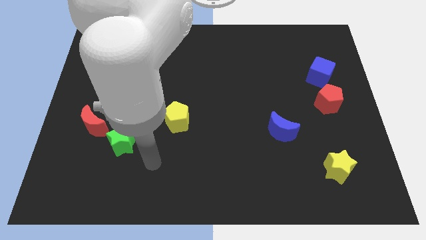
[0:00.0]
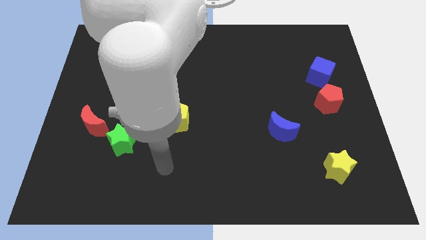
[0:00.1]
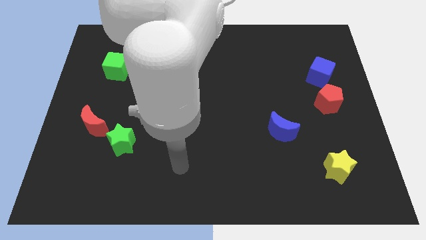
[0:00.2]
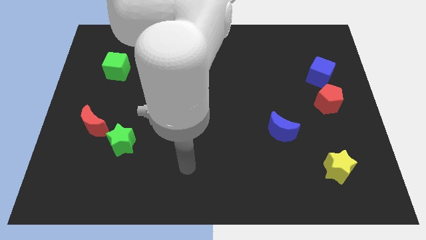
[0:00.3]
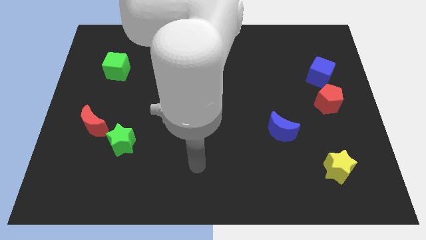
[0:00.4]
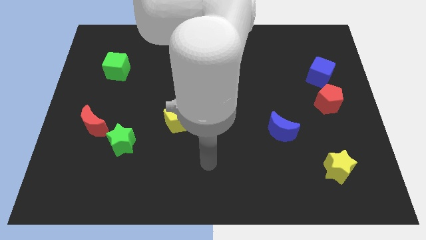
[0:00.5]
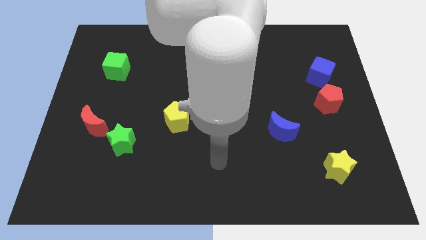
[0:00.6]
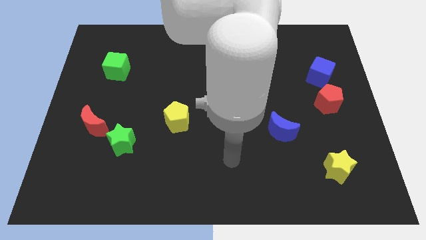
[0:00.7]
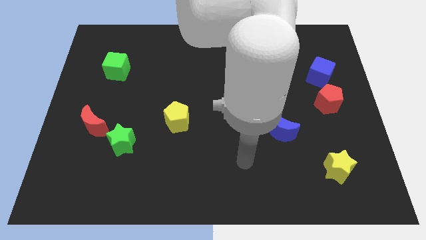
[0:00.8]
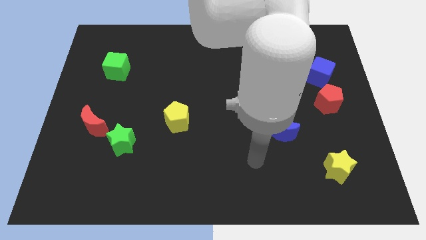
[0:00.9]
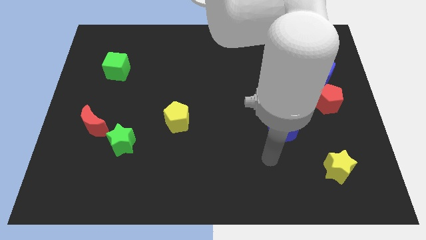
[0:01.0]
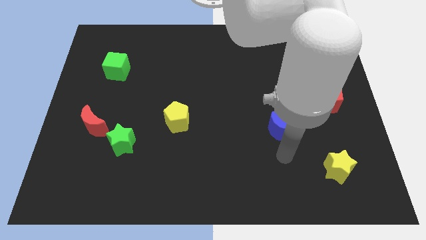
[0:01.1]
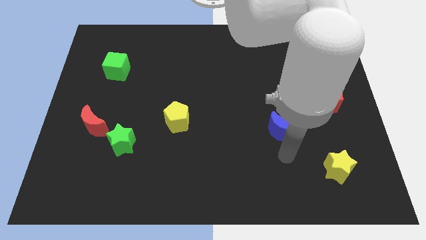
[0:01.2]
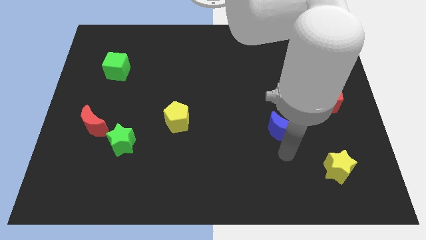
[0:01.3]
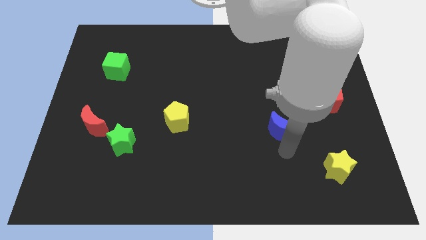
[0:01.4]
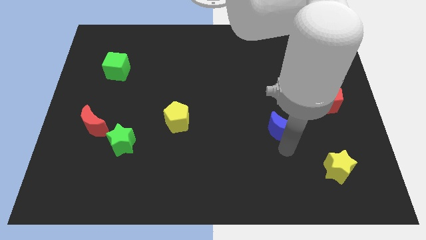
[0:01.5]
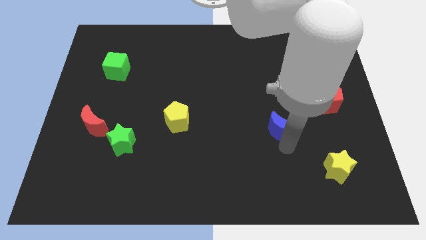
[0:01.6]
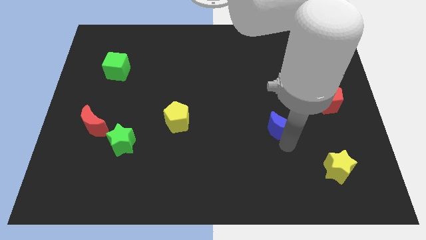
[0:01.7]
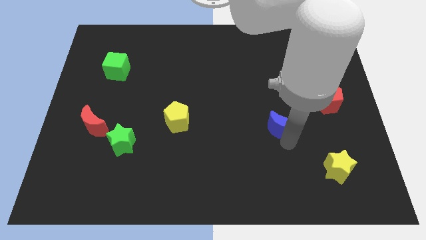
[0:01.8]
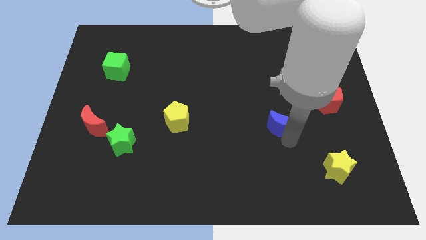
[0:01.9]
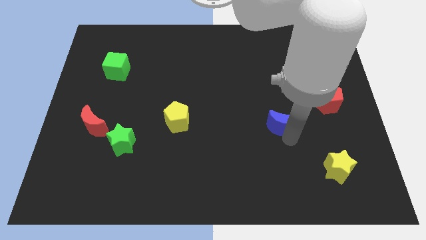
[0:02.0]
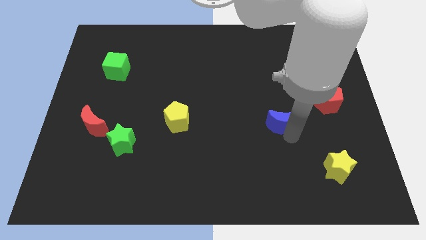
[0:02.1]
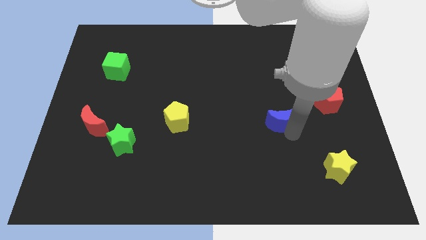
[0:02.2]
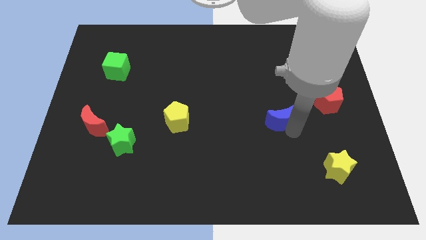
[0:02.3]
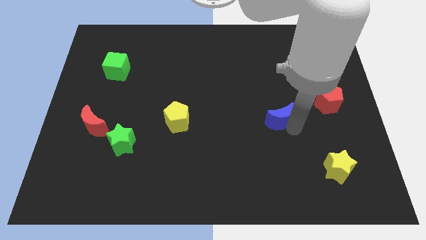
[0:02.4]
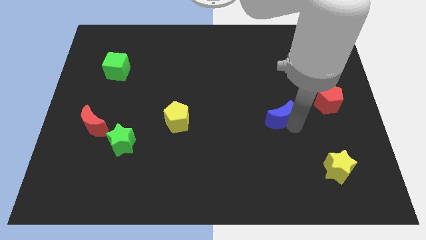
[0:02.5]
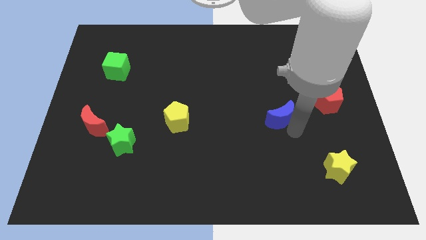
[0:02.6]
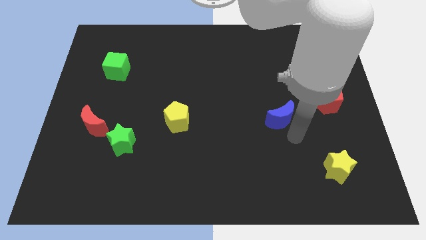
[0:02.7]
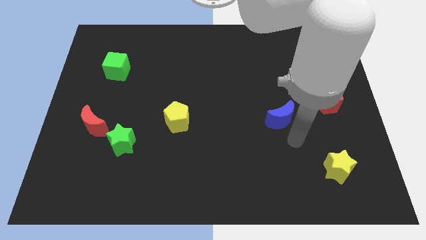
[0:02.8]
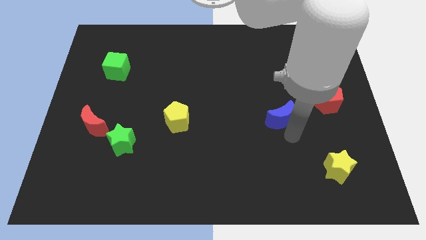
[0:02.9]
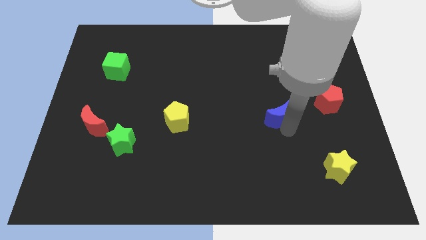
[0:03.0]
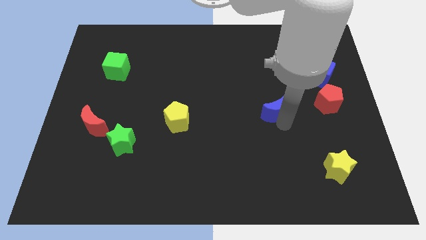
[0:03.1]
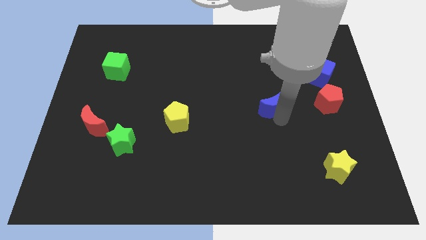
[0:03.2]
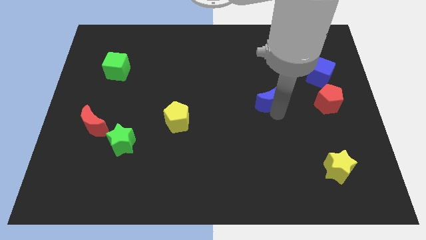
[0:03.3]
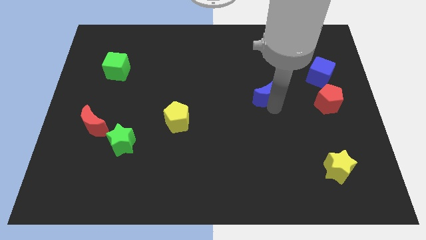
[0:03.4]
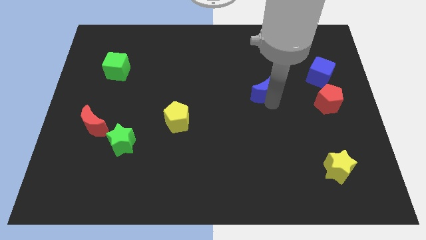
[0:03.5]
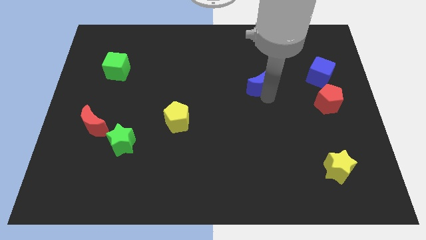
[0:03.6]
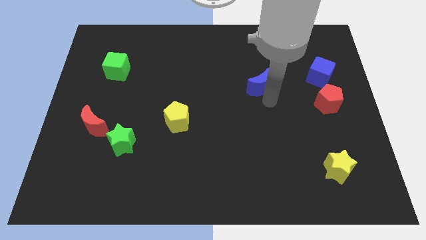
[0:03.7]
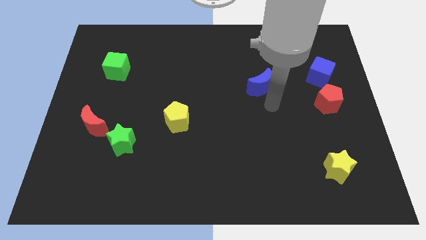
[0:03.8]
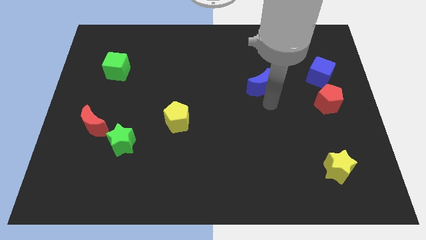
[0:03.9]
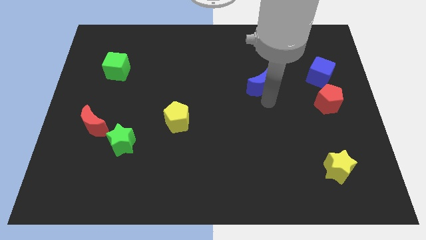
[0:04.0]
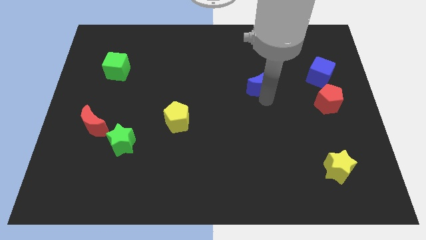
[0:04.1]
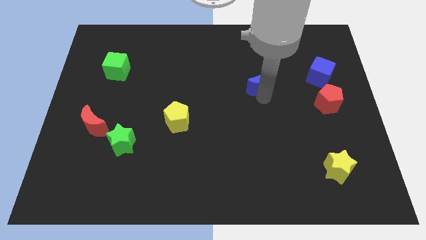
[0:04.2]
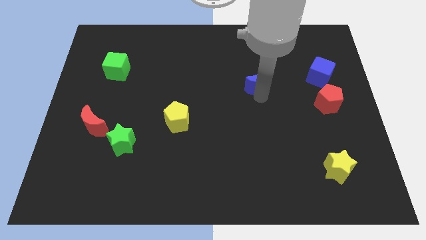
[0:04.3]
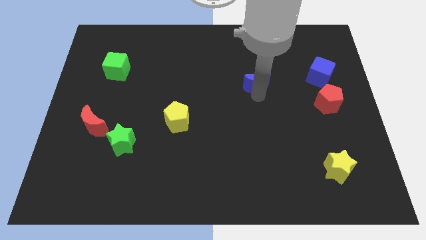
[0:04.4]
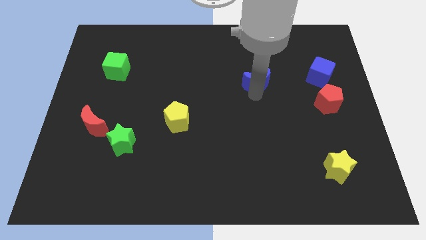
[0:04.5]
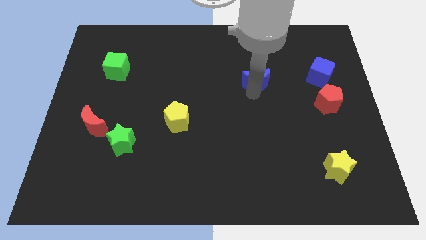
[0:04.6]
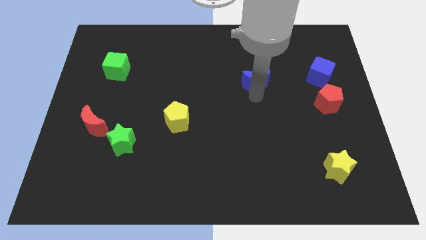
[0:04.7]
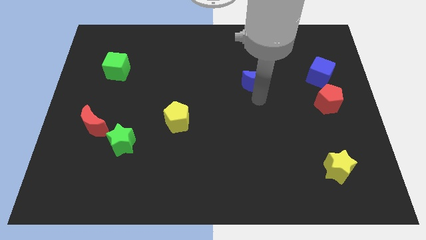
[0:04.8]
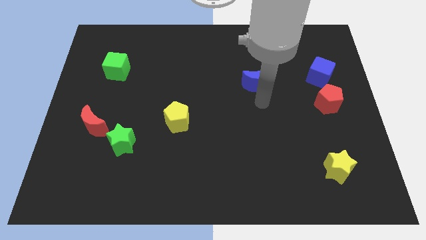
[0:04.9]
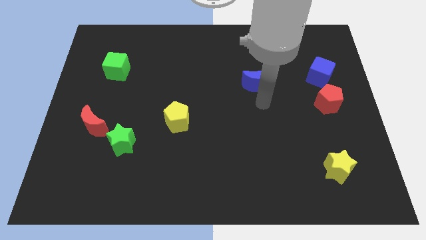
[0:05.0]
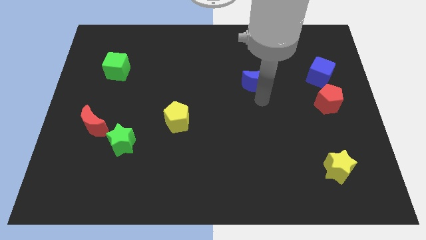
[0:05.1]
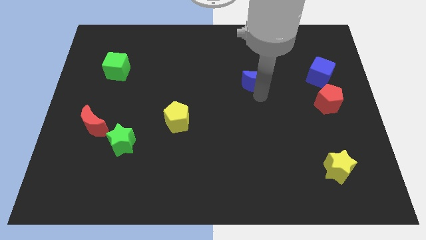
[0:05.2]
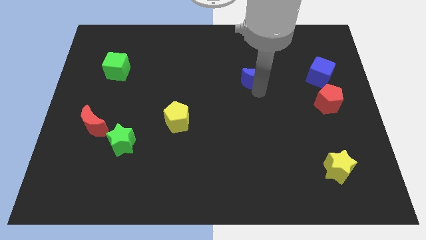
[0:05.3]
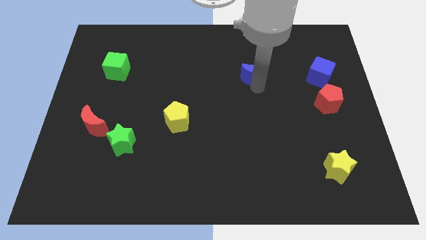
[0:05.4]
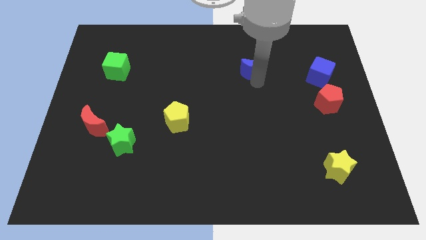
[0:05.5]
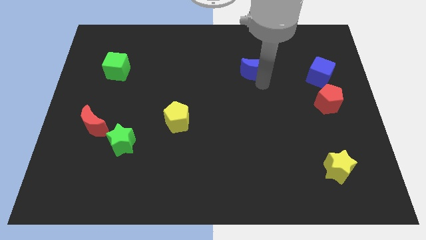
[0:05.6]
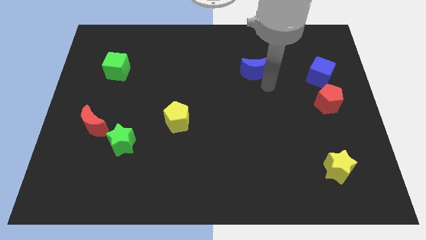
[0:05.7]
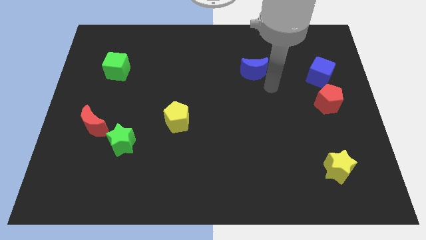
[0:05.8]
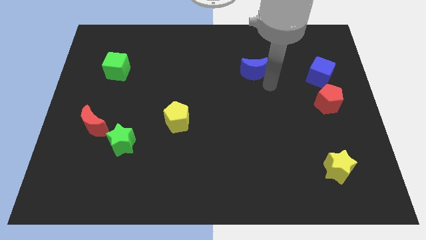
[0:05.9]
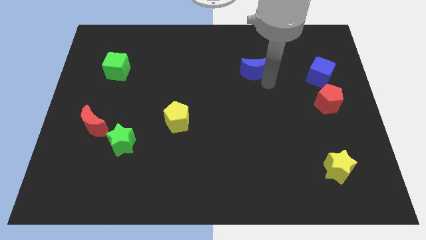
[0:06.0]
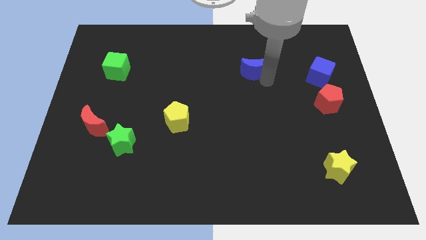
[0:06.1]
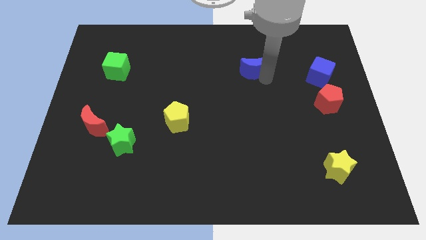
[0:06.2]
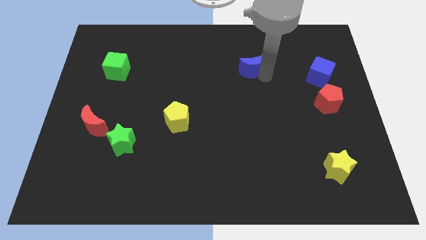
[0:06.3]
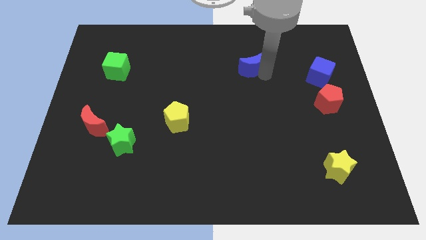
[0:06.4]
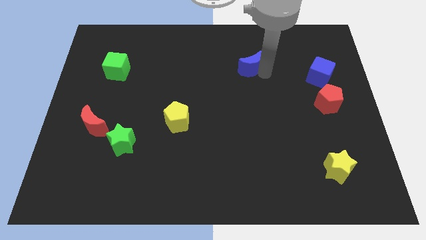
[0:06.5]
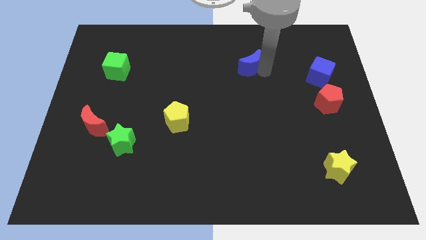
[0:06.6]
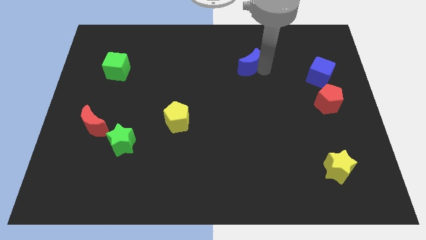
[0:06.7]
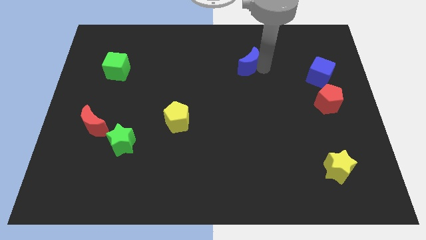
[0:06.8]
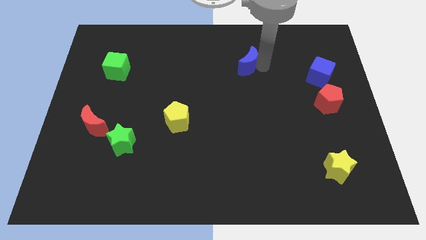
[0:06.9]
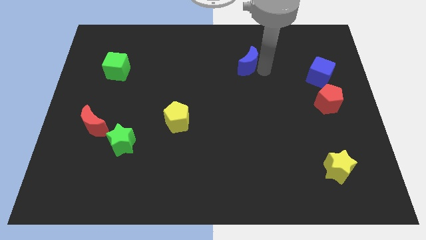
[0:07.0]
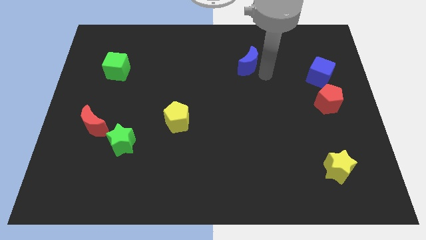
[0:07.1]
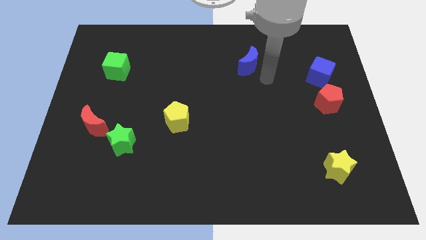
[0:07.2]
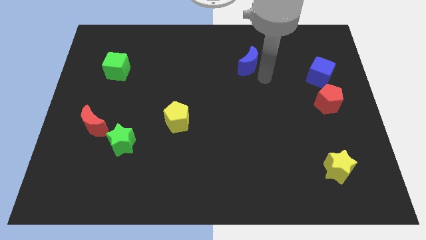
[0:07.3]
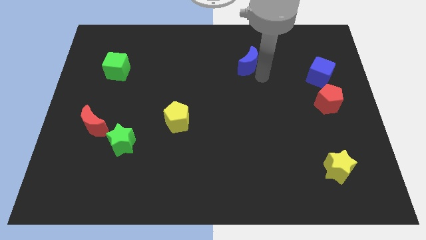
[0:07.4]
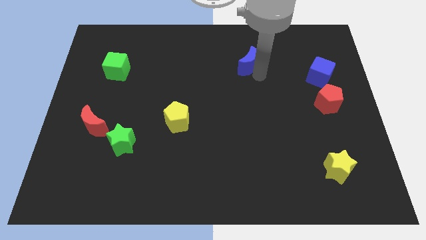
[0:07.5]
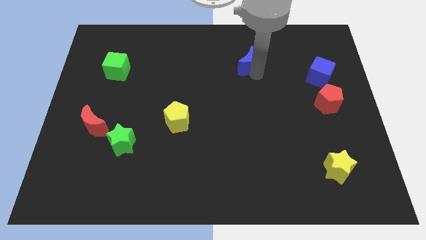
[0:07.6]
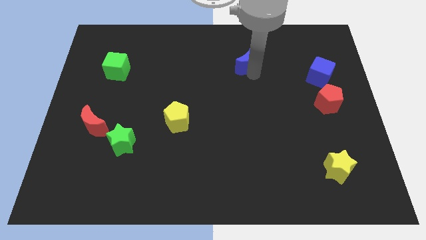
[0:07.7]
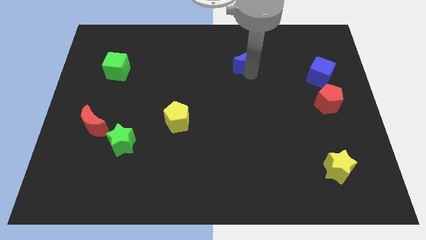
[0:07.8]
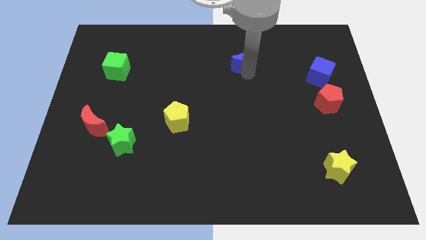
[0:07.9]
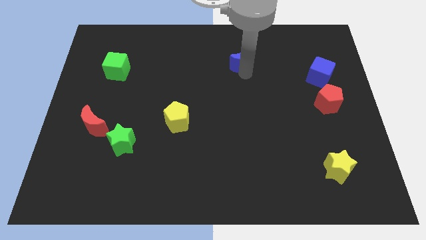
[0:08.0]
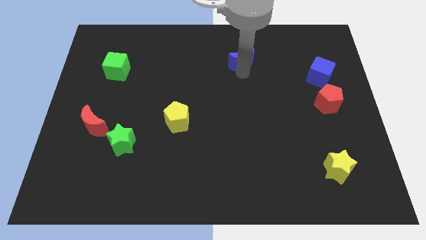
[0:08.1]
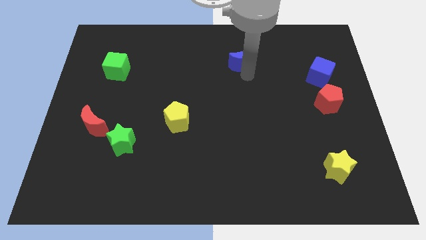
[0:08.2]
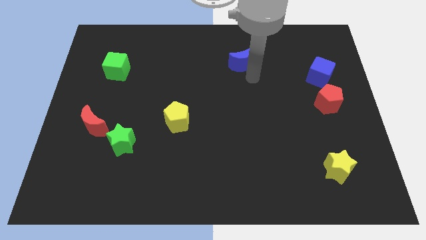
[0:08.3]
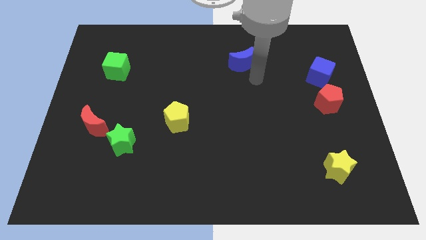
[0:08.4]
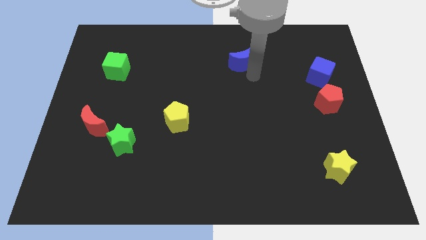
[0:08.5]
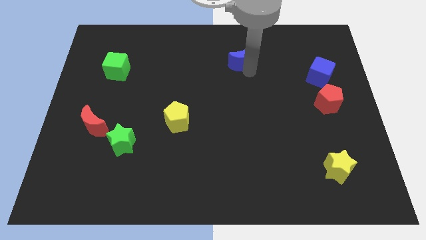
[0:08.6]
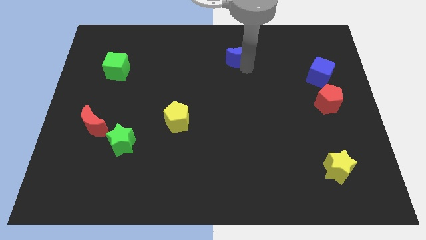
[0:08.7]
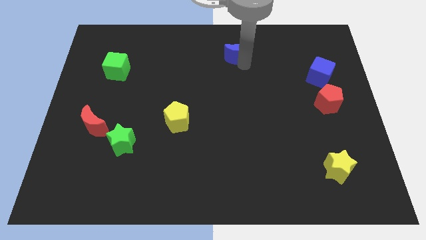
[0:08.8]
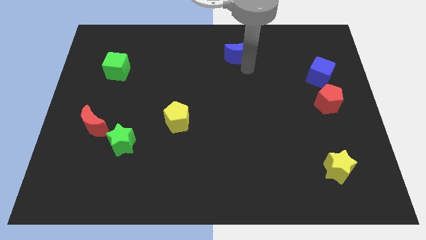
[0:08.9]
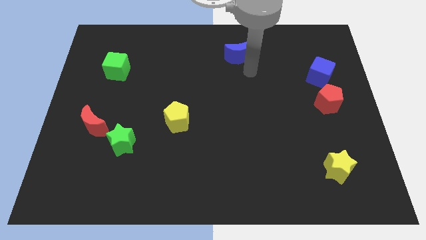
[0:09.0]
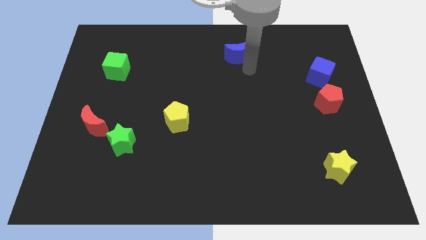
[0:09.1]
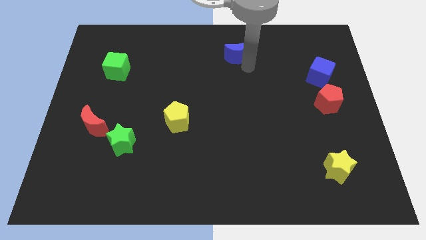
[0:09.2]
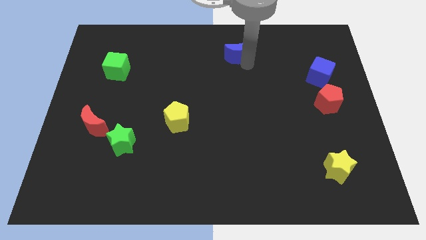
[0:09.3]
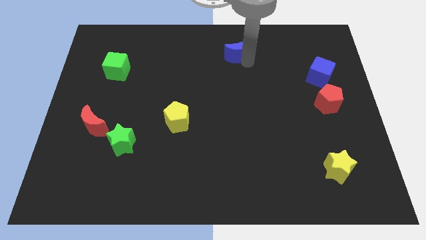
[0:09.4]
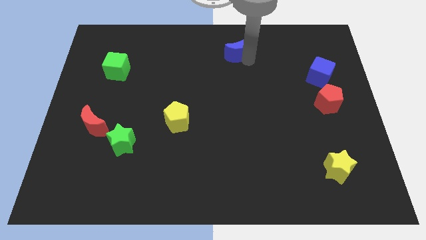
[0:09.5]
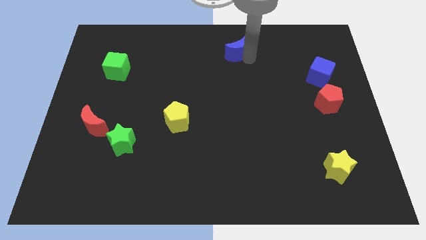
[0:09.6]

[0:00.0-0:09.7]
put the blue moon to the towards your base
